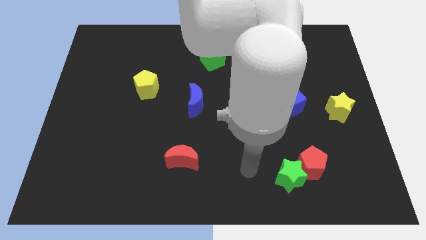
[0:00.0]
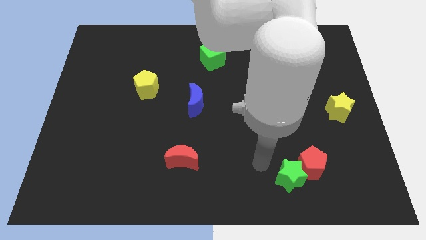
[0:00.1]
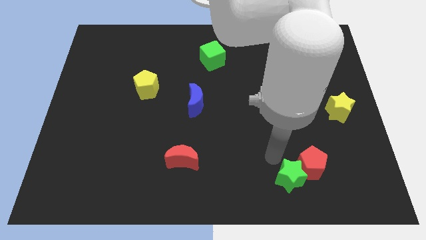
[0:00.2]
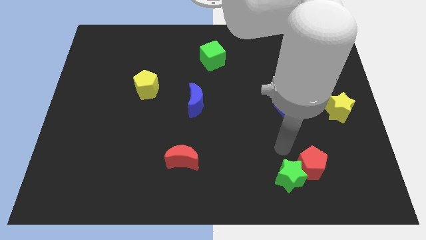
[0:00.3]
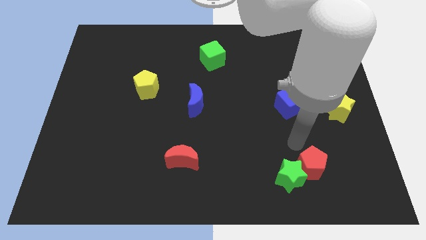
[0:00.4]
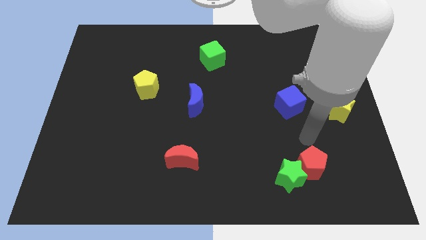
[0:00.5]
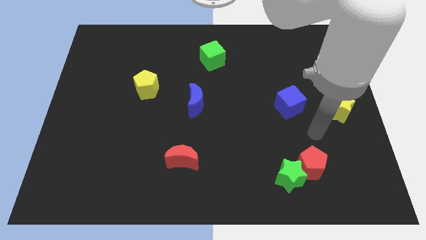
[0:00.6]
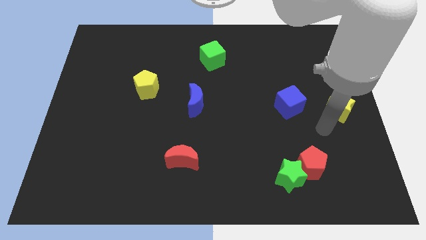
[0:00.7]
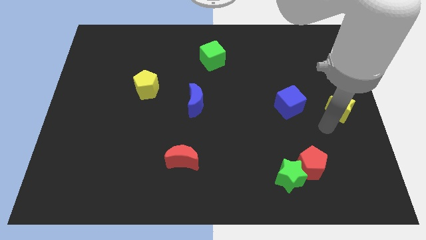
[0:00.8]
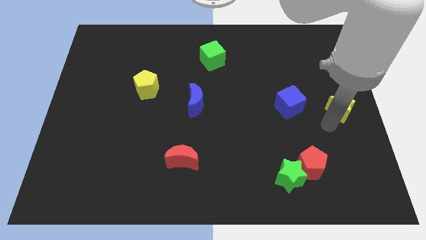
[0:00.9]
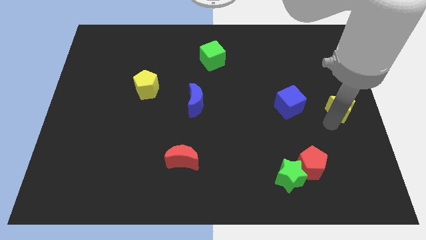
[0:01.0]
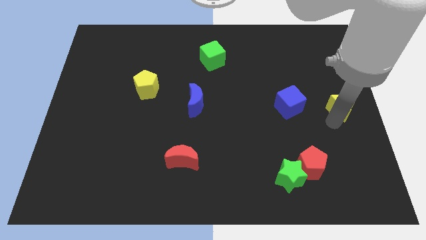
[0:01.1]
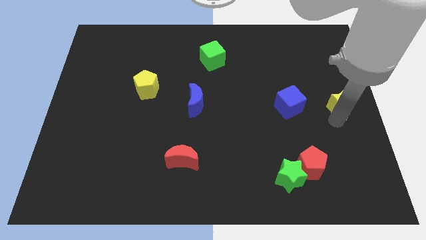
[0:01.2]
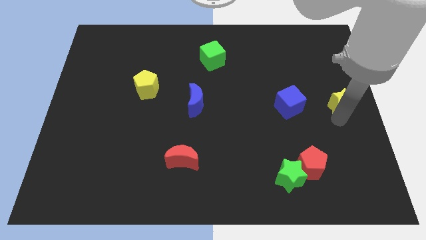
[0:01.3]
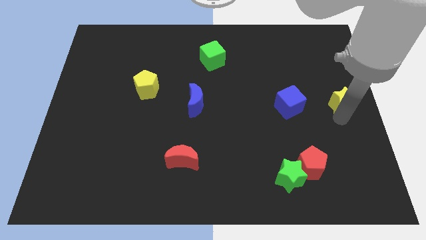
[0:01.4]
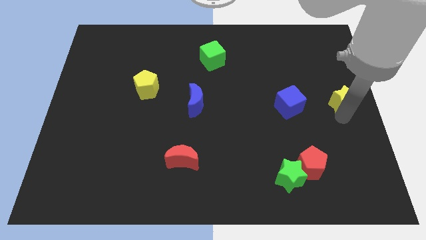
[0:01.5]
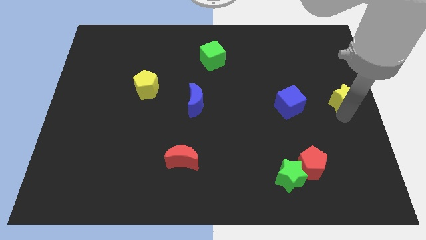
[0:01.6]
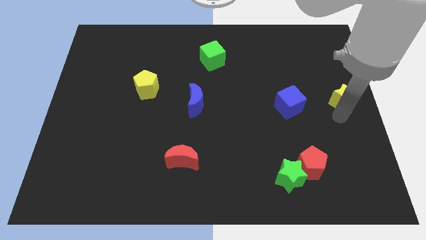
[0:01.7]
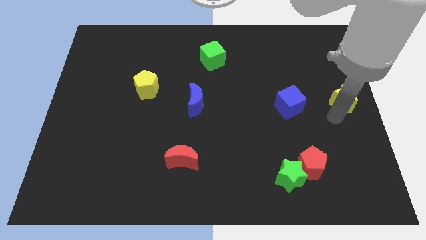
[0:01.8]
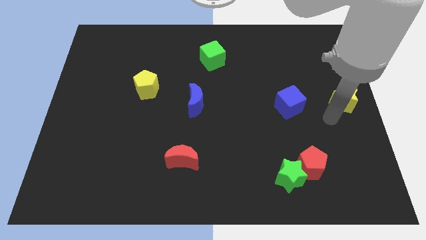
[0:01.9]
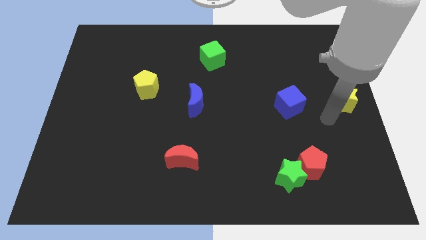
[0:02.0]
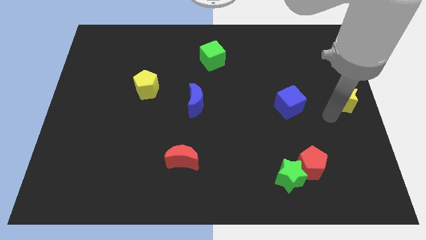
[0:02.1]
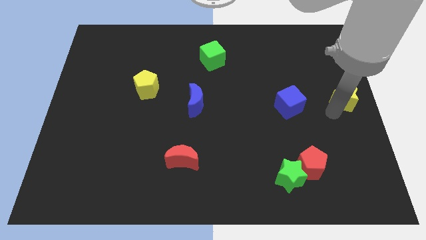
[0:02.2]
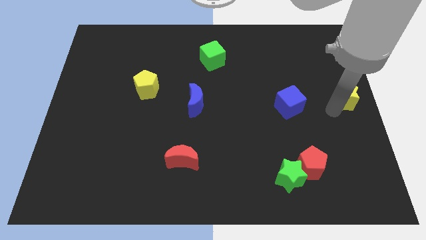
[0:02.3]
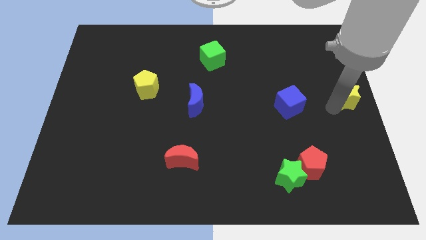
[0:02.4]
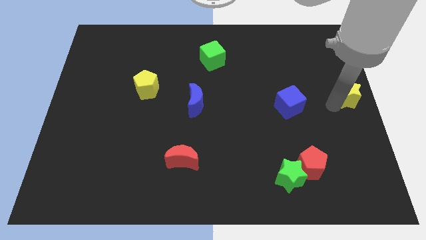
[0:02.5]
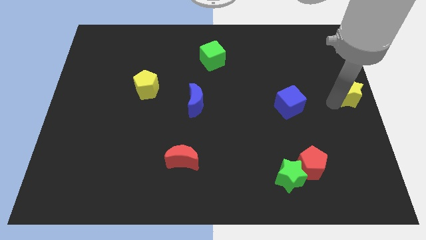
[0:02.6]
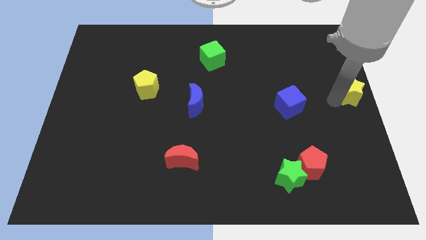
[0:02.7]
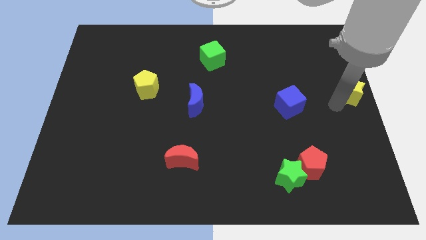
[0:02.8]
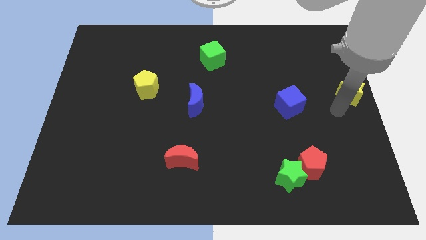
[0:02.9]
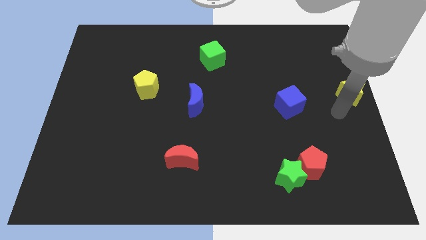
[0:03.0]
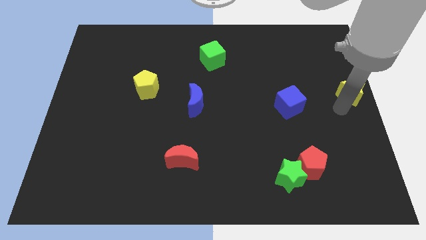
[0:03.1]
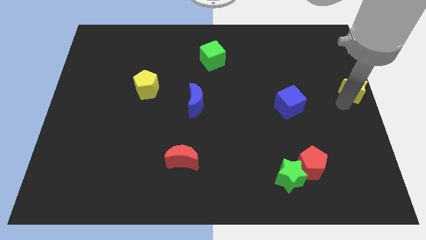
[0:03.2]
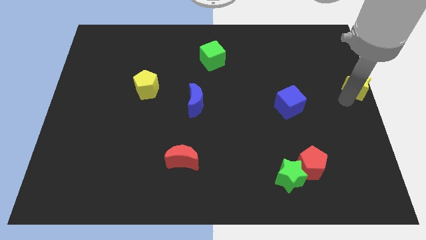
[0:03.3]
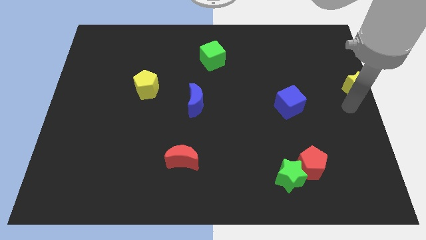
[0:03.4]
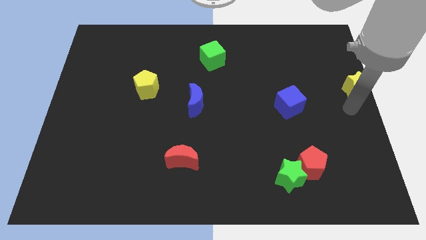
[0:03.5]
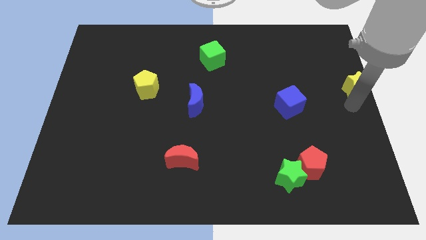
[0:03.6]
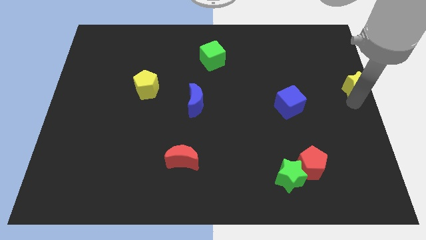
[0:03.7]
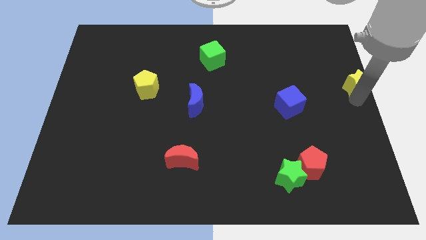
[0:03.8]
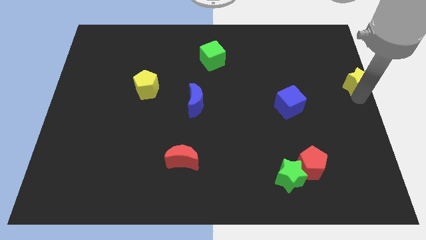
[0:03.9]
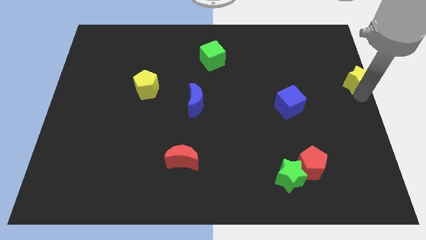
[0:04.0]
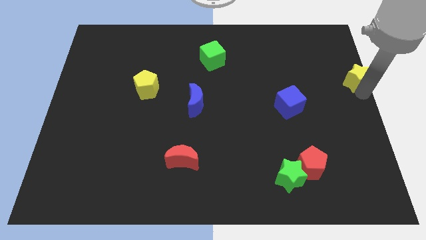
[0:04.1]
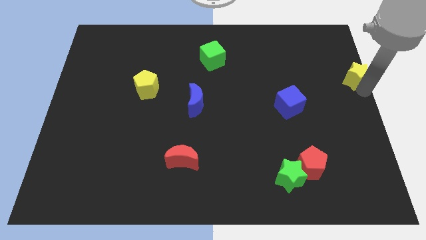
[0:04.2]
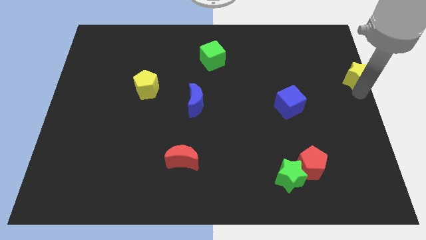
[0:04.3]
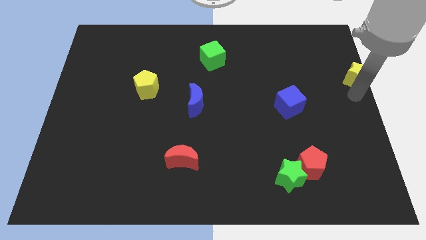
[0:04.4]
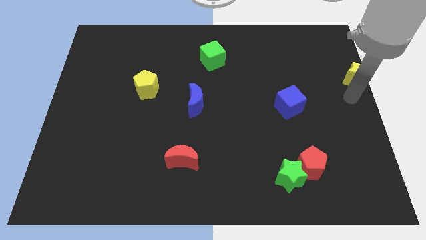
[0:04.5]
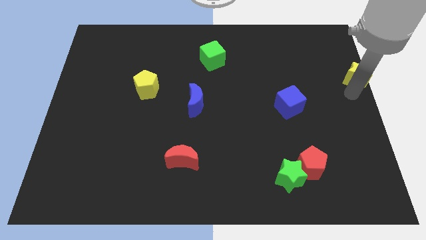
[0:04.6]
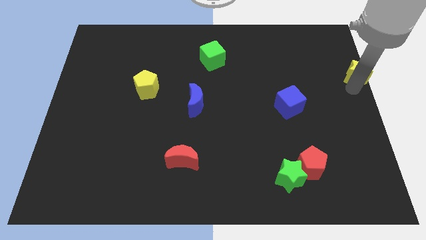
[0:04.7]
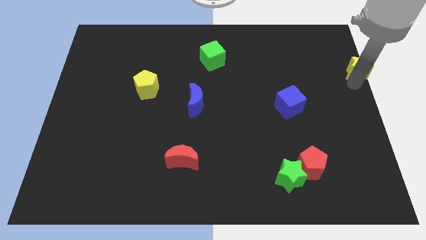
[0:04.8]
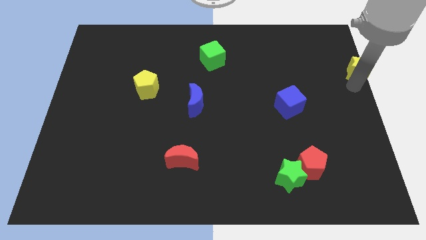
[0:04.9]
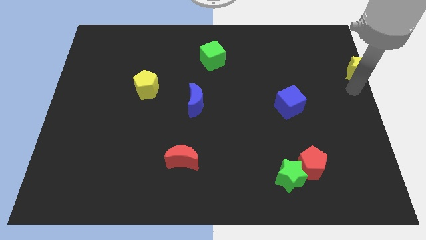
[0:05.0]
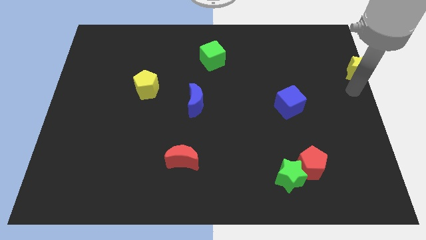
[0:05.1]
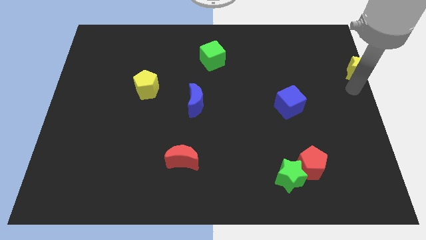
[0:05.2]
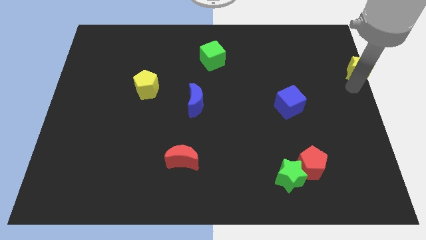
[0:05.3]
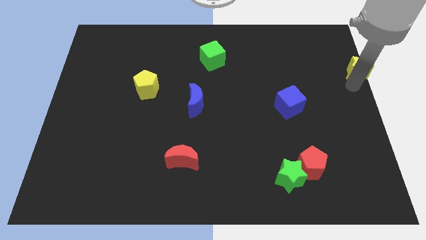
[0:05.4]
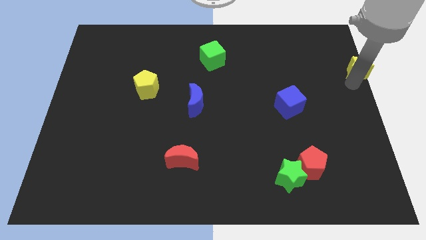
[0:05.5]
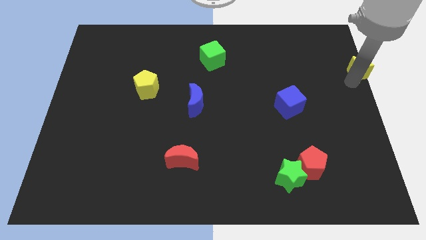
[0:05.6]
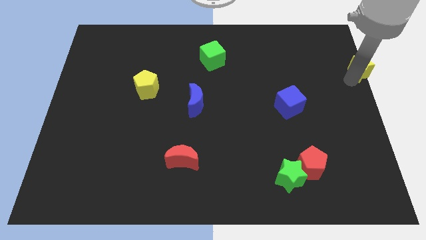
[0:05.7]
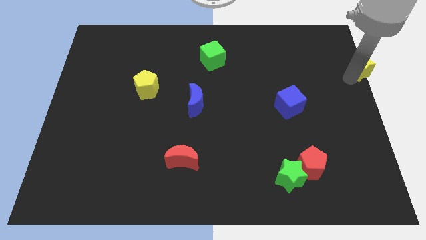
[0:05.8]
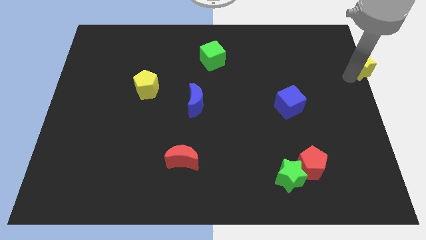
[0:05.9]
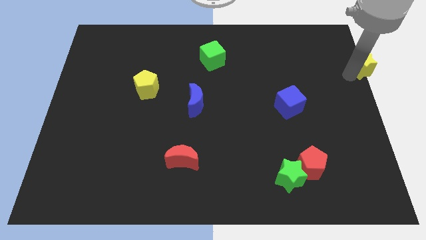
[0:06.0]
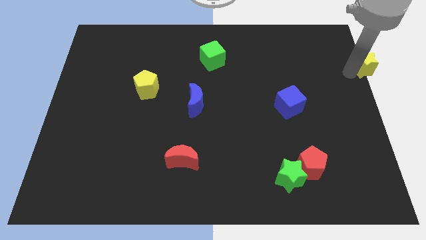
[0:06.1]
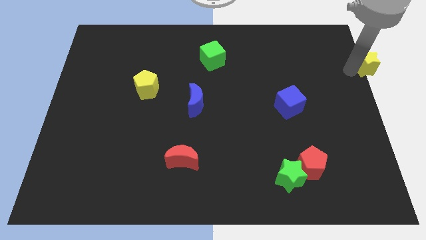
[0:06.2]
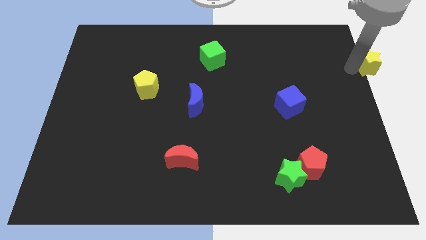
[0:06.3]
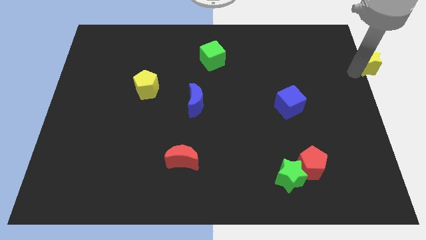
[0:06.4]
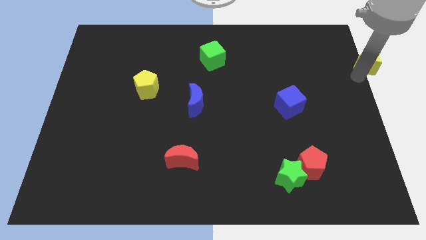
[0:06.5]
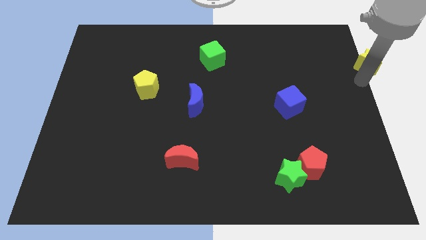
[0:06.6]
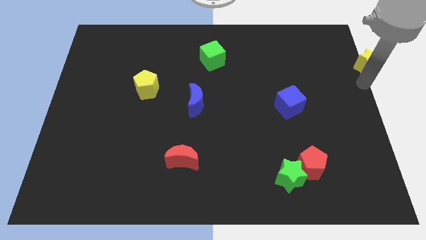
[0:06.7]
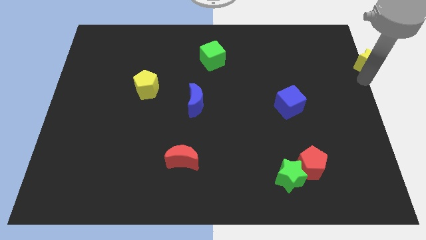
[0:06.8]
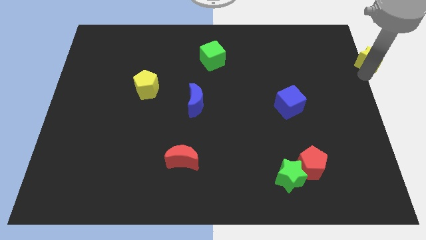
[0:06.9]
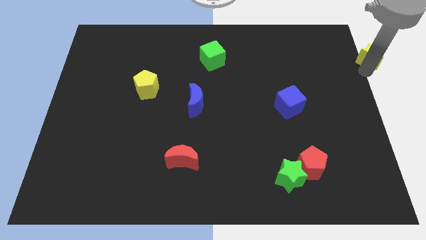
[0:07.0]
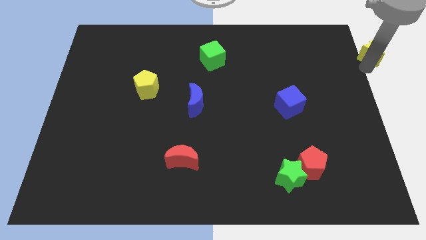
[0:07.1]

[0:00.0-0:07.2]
move the yellow star to the top right of the board
